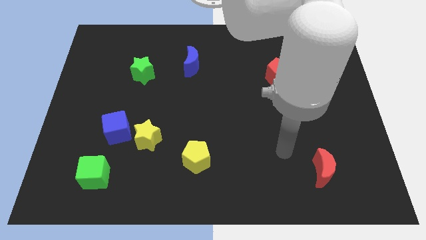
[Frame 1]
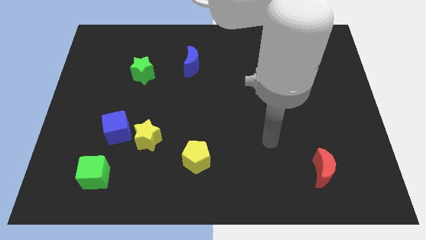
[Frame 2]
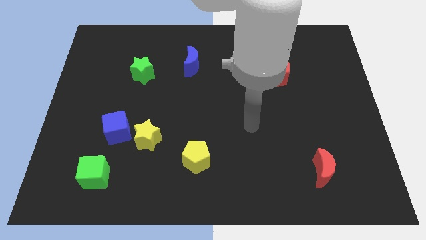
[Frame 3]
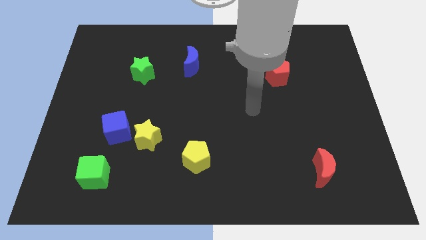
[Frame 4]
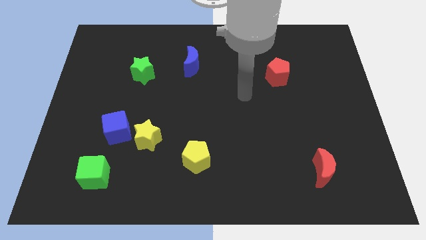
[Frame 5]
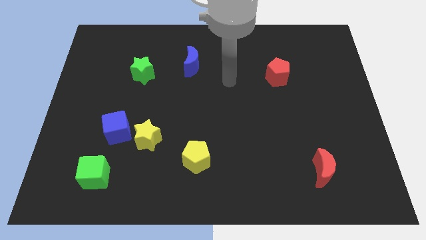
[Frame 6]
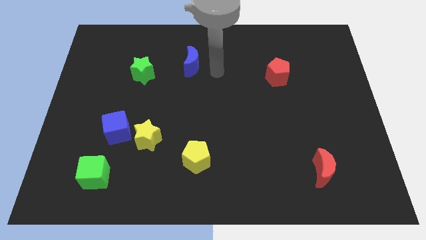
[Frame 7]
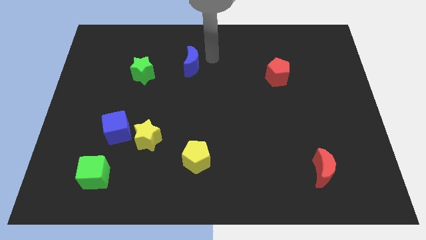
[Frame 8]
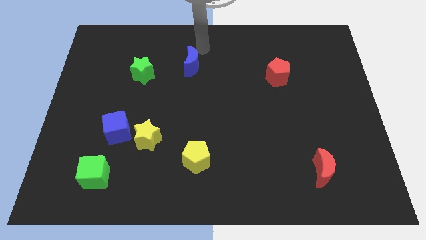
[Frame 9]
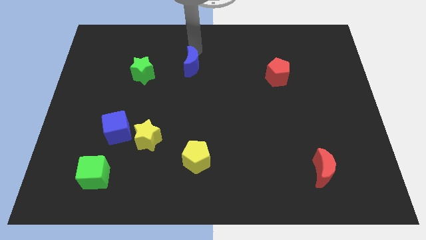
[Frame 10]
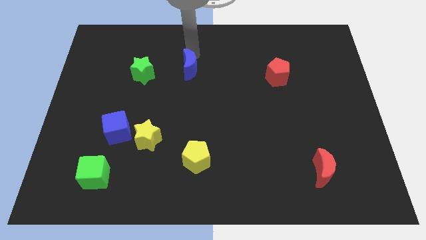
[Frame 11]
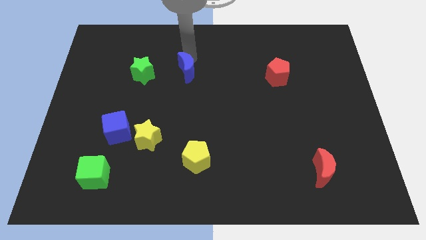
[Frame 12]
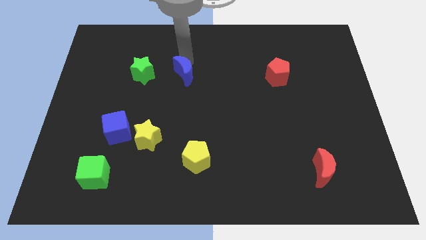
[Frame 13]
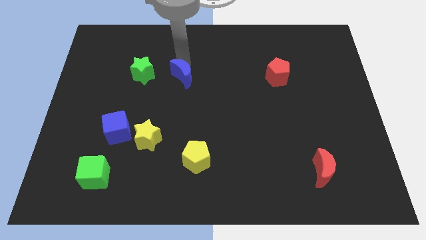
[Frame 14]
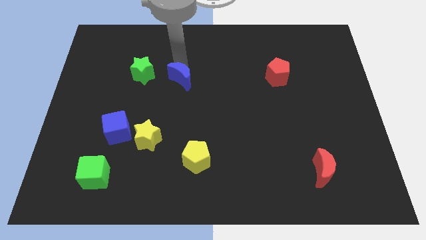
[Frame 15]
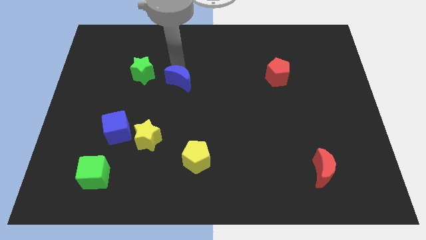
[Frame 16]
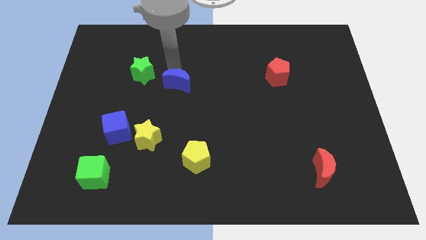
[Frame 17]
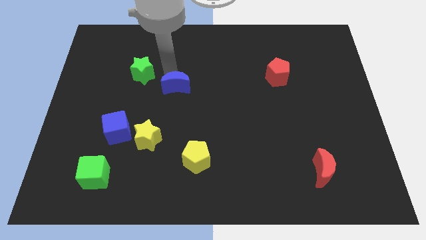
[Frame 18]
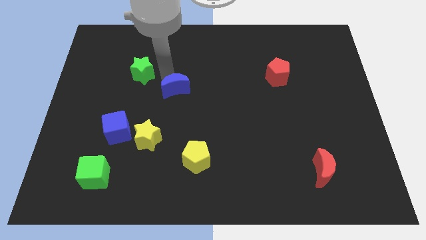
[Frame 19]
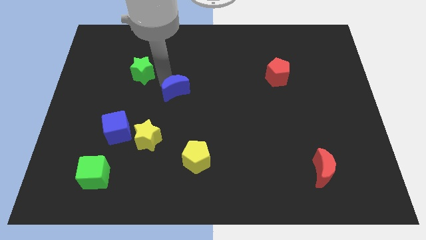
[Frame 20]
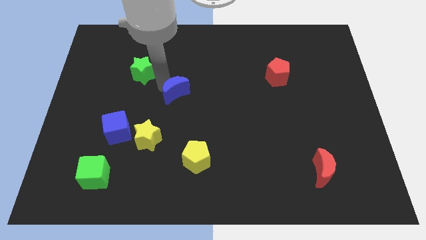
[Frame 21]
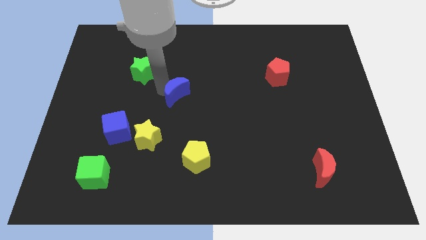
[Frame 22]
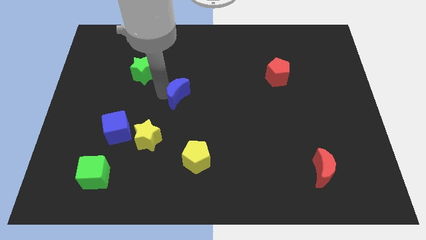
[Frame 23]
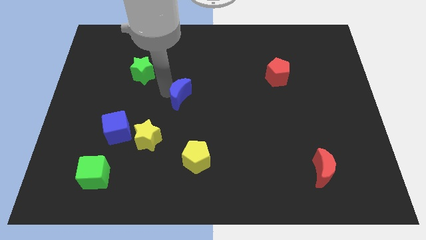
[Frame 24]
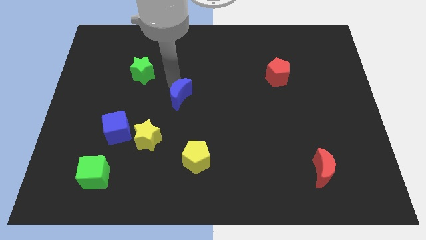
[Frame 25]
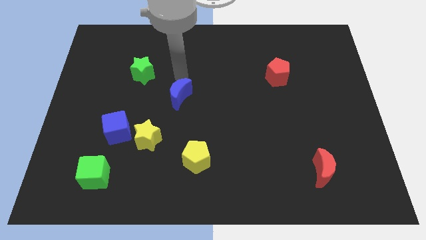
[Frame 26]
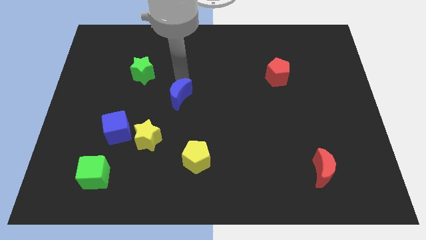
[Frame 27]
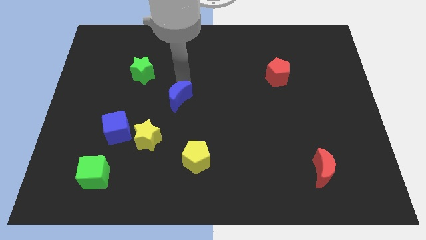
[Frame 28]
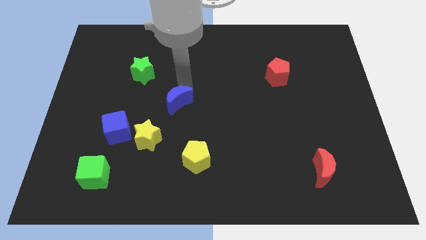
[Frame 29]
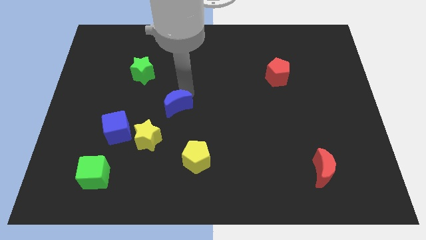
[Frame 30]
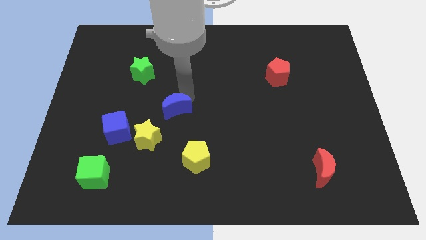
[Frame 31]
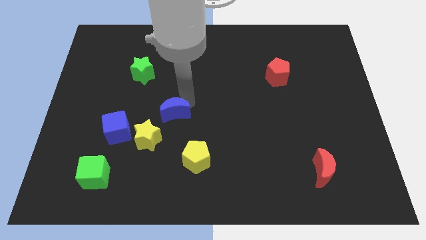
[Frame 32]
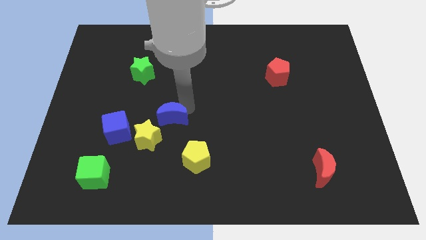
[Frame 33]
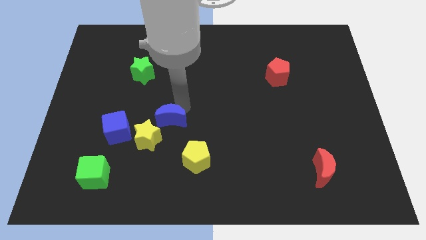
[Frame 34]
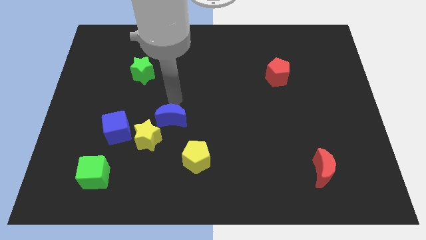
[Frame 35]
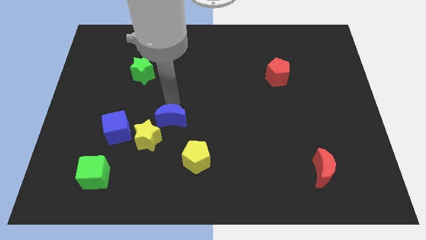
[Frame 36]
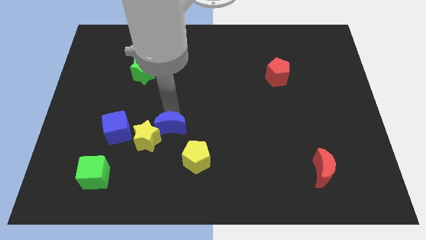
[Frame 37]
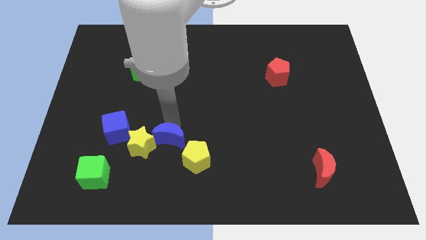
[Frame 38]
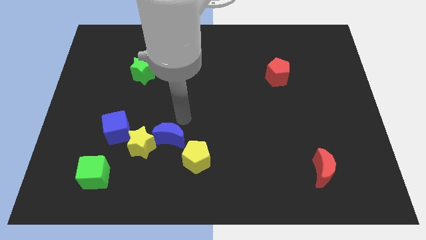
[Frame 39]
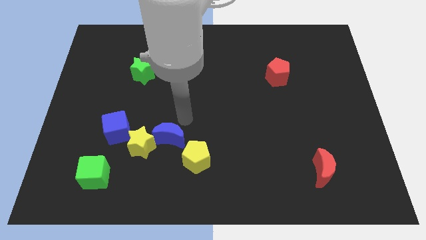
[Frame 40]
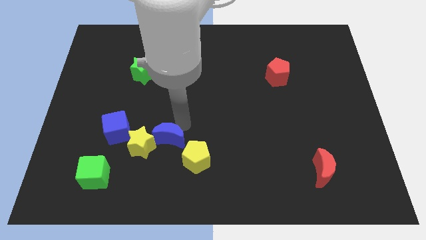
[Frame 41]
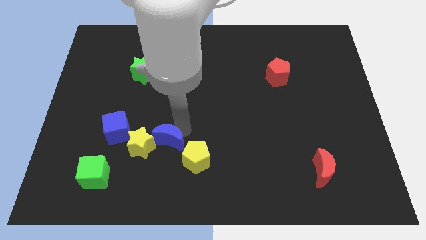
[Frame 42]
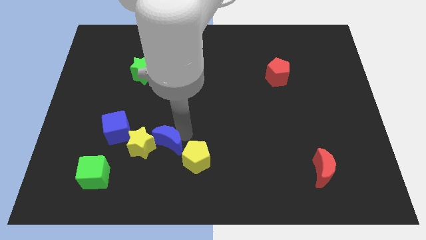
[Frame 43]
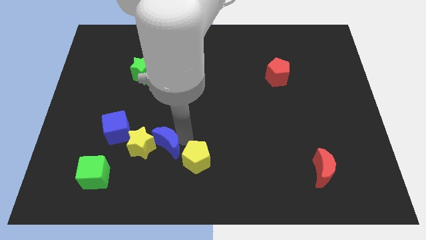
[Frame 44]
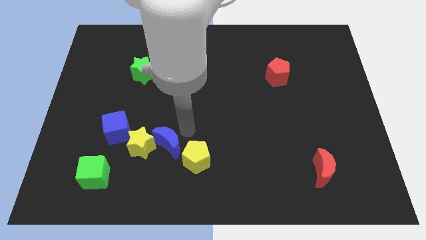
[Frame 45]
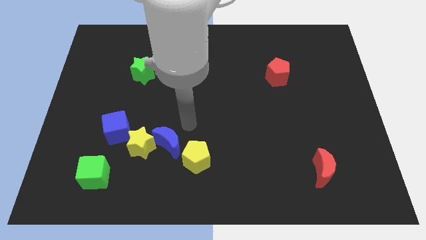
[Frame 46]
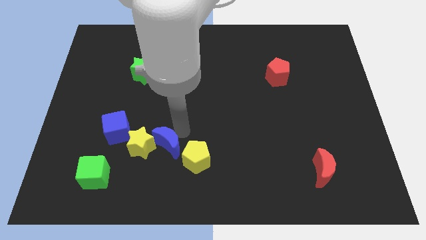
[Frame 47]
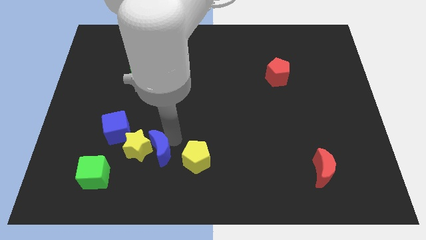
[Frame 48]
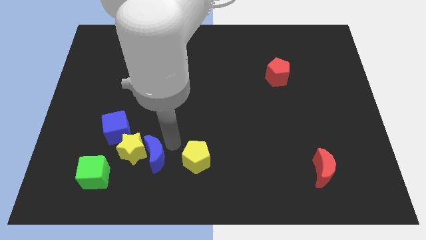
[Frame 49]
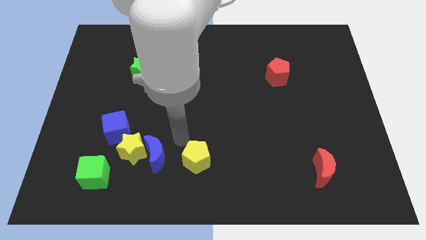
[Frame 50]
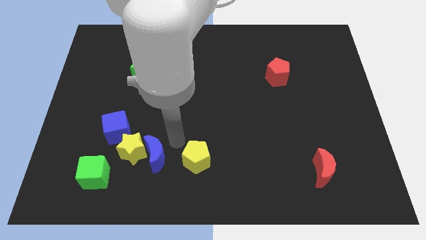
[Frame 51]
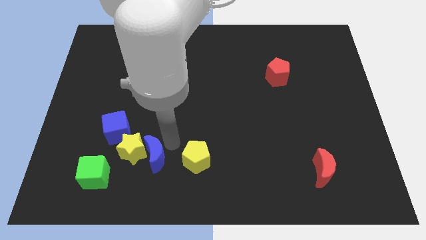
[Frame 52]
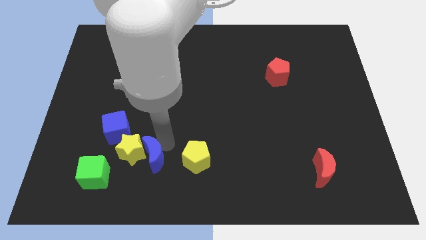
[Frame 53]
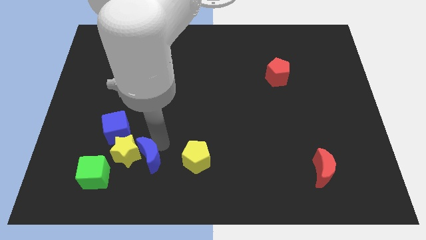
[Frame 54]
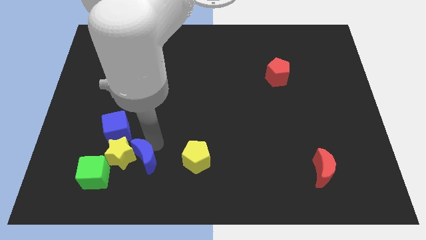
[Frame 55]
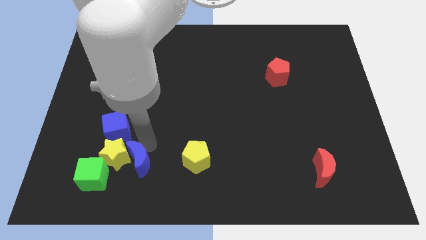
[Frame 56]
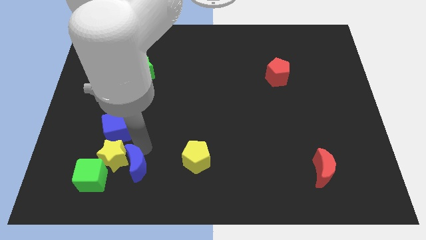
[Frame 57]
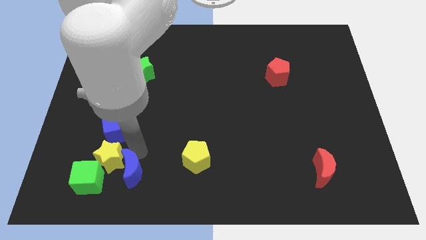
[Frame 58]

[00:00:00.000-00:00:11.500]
move the blue moon to the bottom side of the blue cube

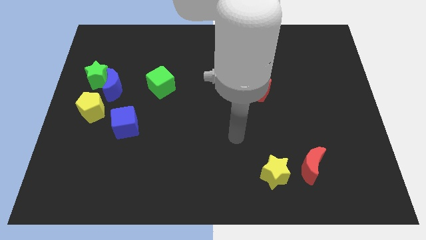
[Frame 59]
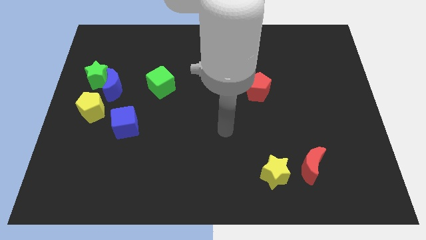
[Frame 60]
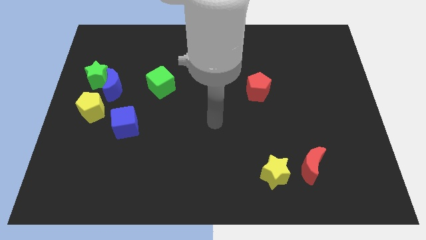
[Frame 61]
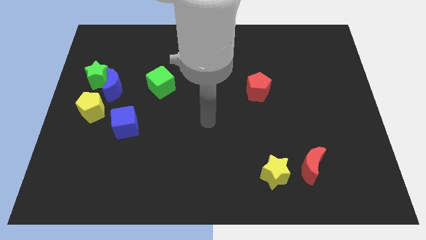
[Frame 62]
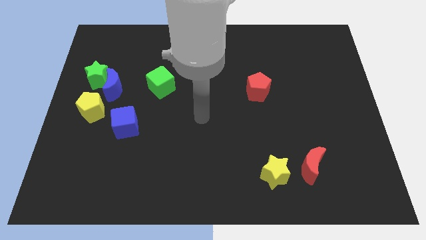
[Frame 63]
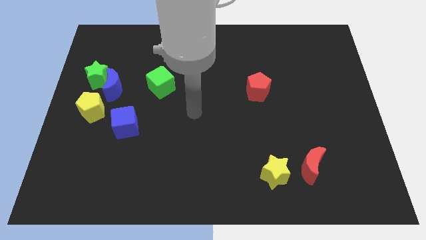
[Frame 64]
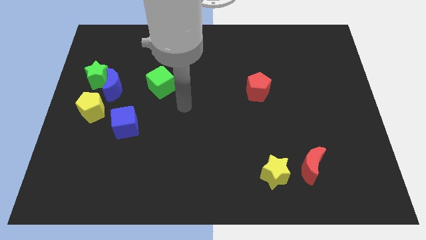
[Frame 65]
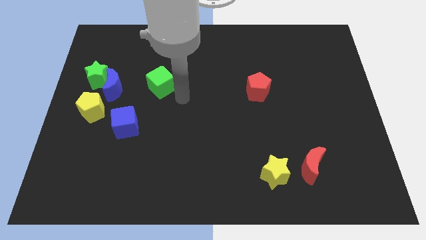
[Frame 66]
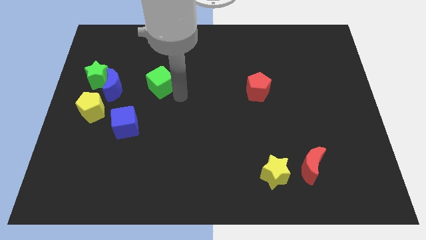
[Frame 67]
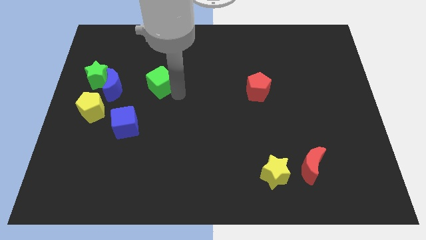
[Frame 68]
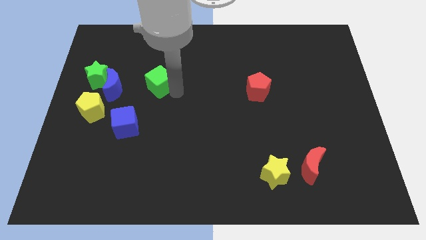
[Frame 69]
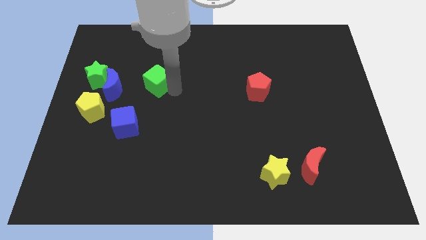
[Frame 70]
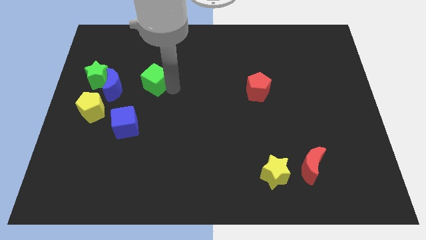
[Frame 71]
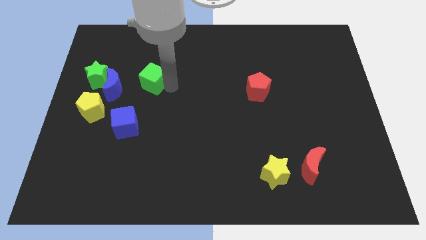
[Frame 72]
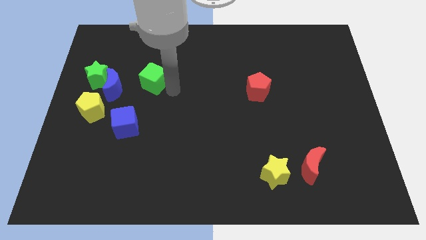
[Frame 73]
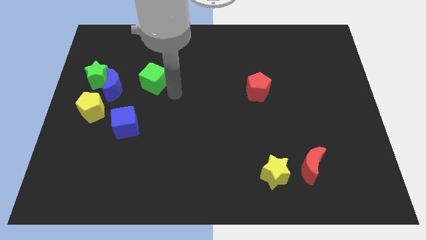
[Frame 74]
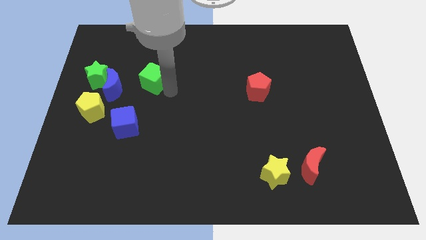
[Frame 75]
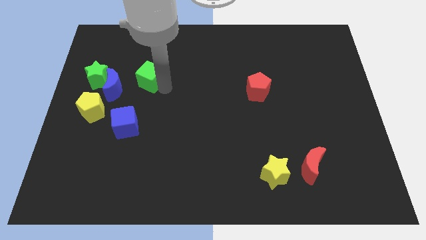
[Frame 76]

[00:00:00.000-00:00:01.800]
push the green cube to the top right of the blue moon

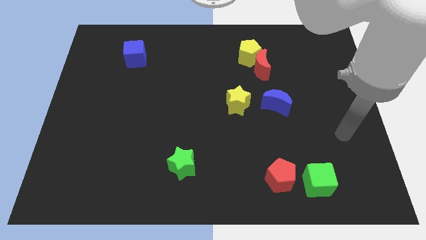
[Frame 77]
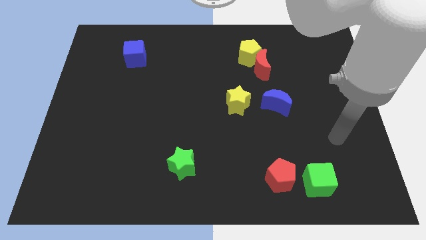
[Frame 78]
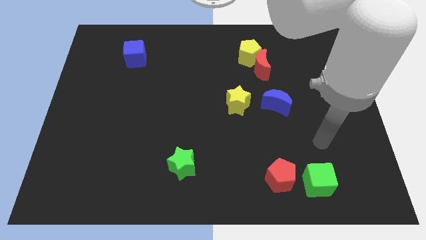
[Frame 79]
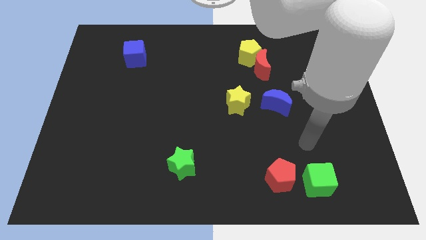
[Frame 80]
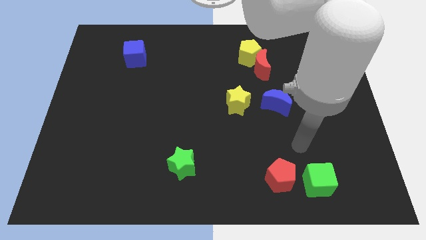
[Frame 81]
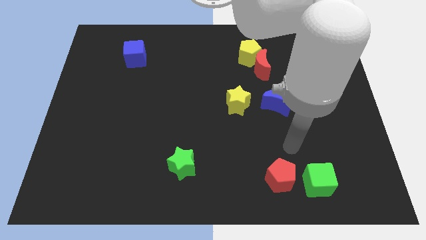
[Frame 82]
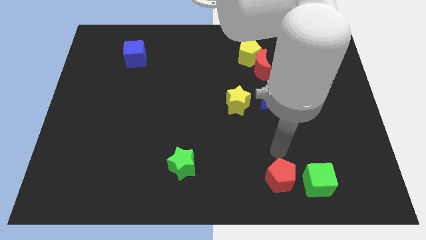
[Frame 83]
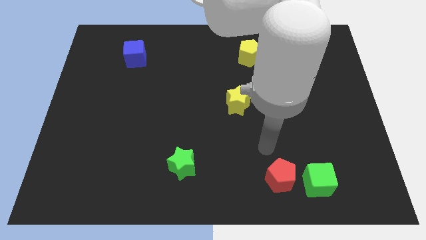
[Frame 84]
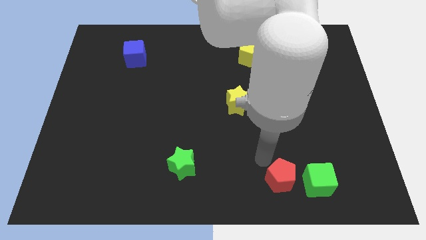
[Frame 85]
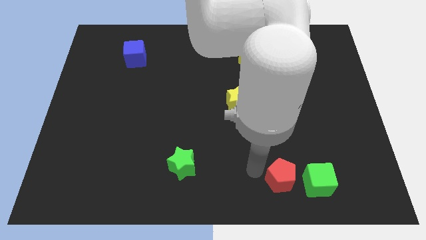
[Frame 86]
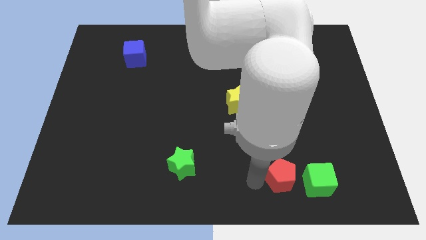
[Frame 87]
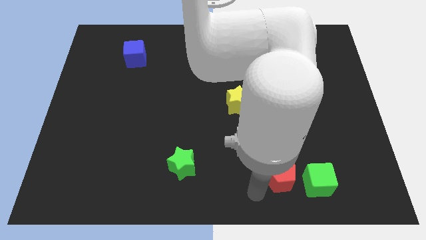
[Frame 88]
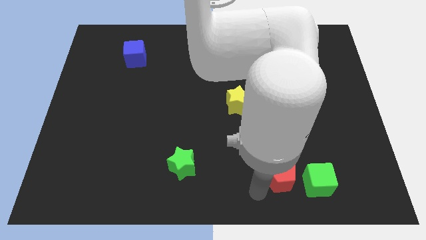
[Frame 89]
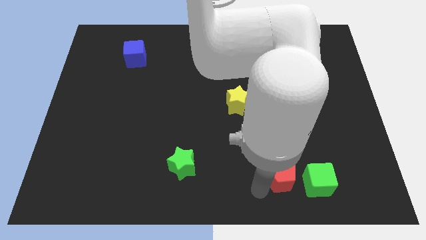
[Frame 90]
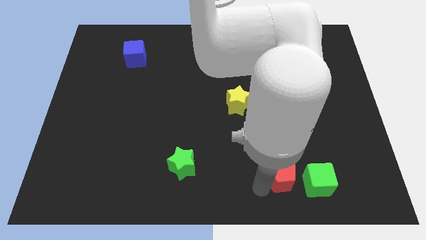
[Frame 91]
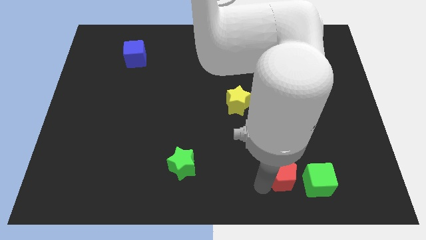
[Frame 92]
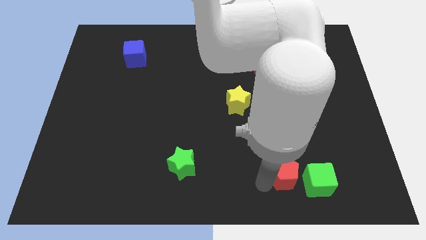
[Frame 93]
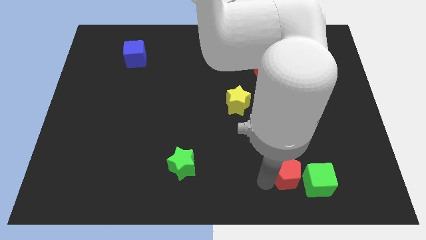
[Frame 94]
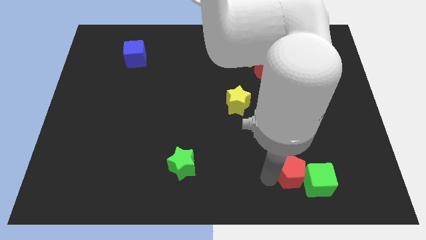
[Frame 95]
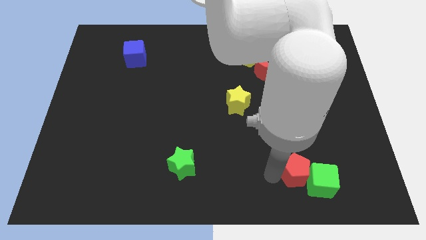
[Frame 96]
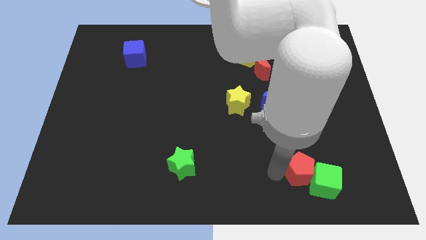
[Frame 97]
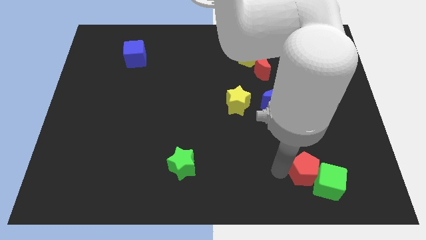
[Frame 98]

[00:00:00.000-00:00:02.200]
slide the red pentagon above the green cube
